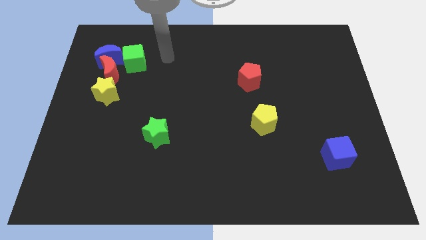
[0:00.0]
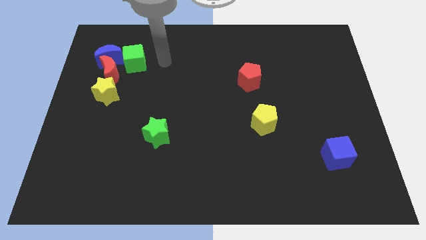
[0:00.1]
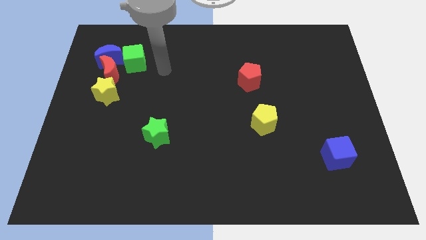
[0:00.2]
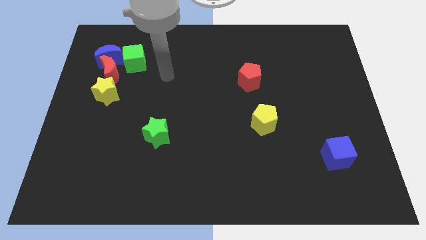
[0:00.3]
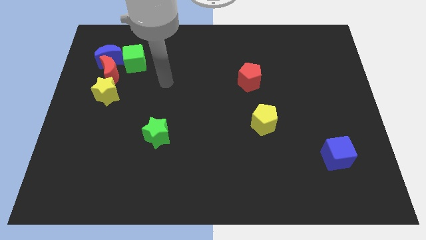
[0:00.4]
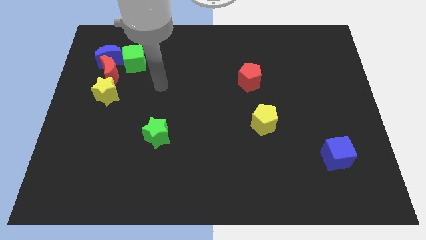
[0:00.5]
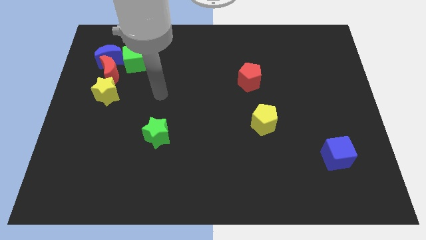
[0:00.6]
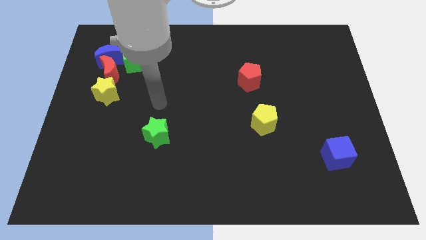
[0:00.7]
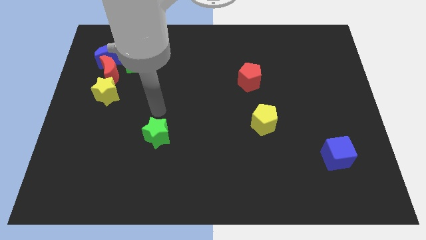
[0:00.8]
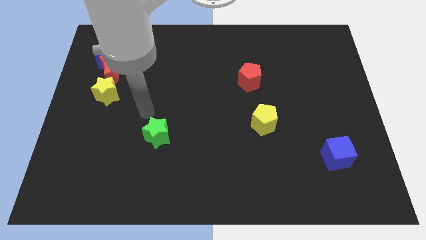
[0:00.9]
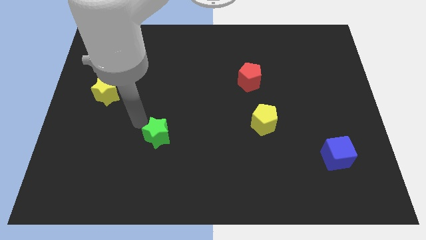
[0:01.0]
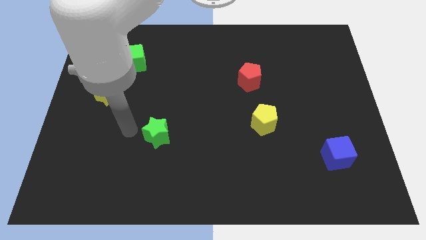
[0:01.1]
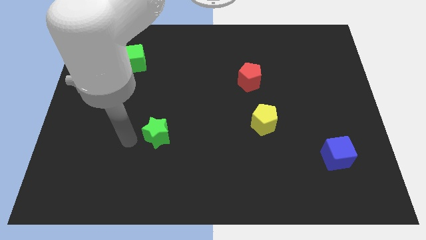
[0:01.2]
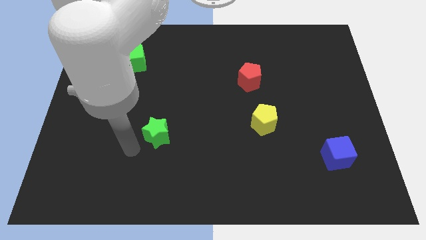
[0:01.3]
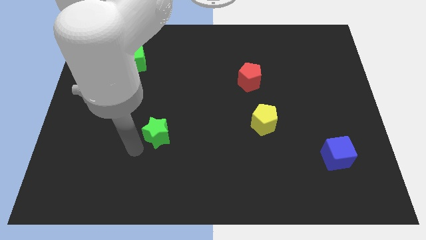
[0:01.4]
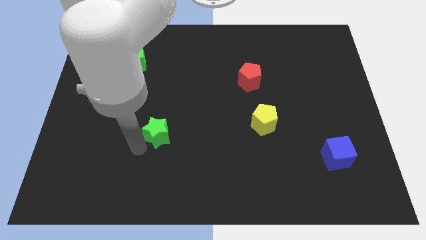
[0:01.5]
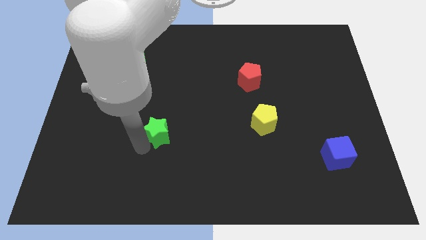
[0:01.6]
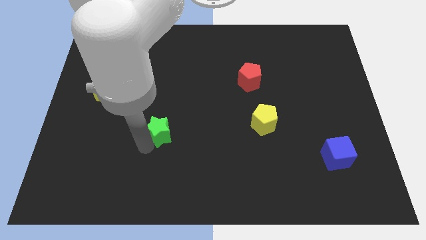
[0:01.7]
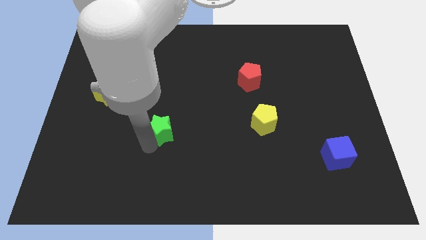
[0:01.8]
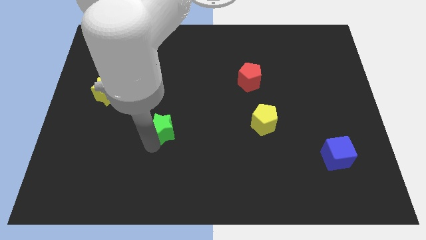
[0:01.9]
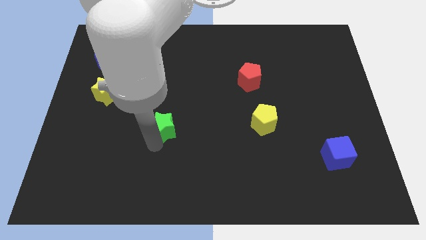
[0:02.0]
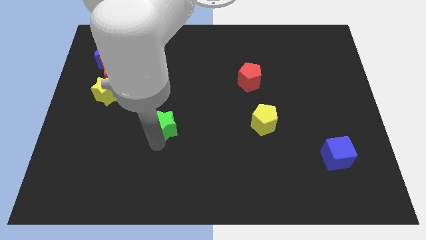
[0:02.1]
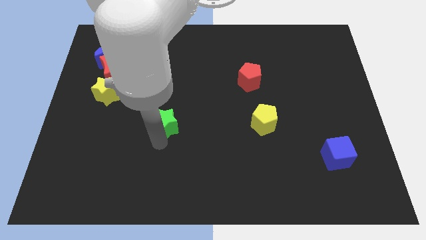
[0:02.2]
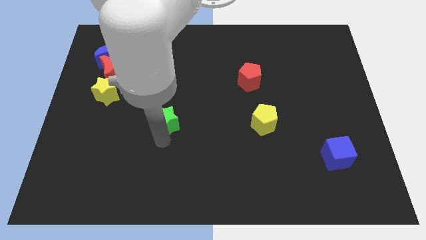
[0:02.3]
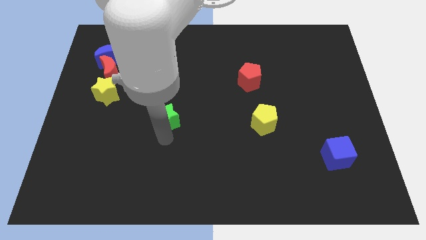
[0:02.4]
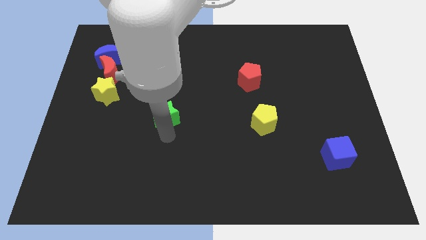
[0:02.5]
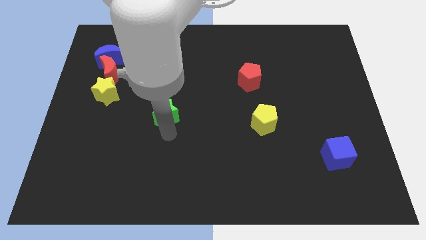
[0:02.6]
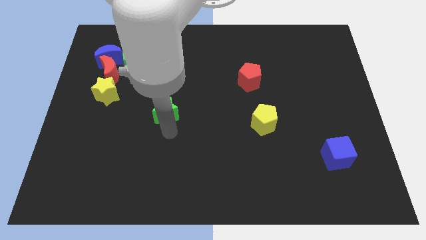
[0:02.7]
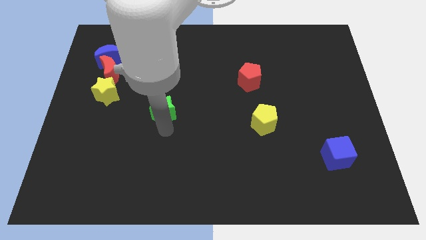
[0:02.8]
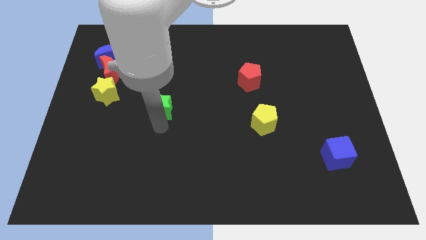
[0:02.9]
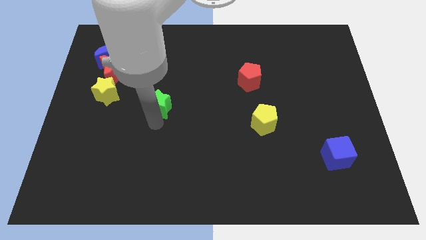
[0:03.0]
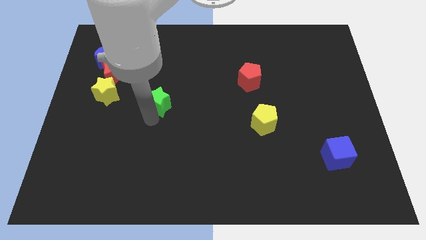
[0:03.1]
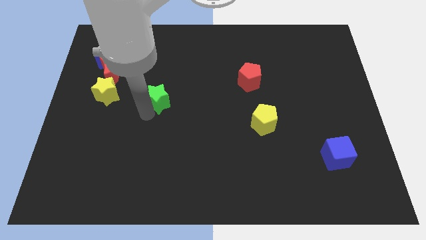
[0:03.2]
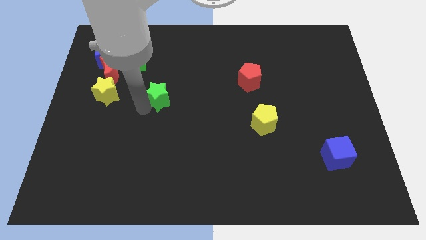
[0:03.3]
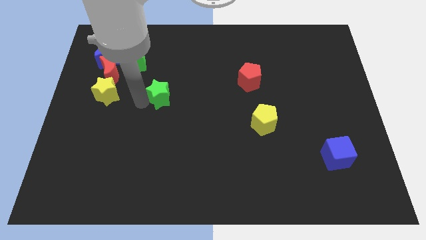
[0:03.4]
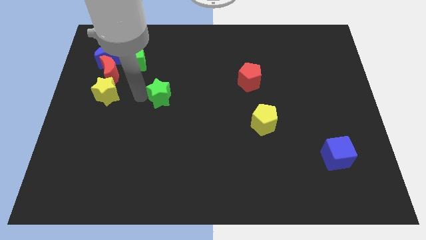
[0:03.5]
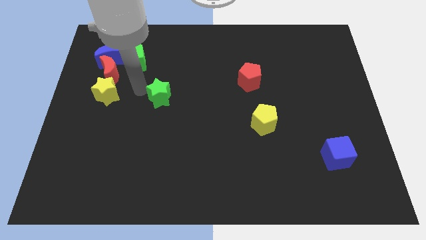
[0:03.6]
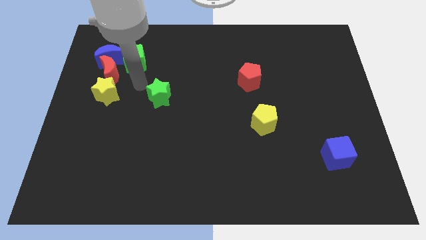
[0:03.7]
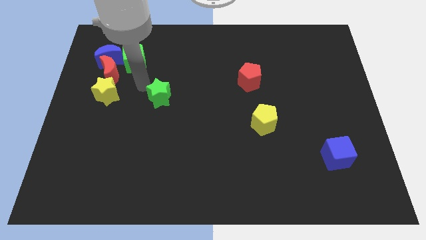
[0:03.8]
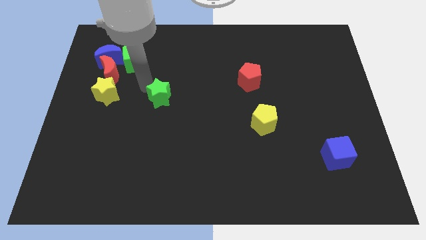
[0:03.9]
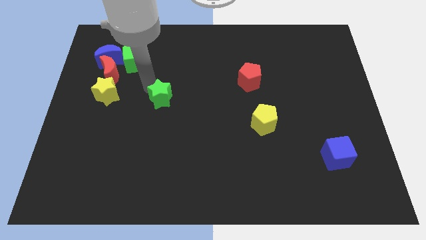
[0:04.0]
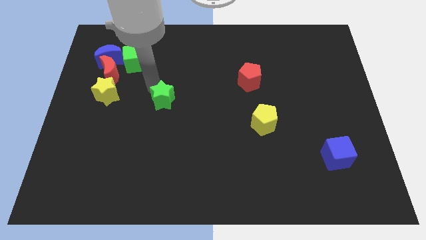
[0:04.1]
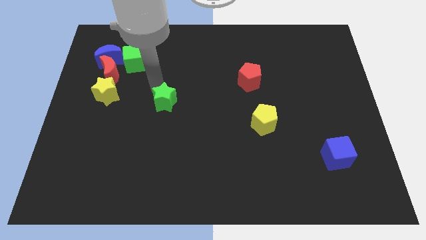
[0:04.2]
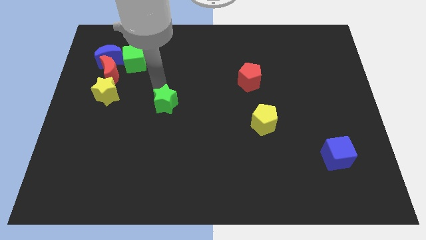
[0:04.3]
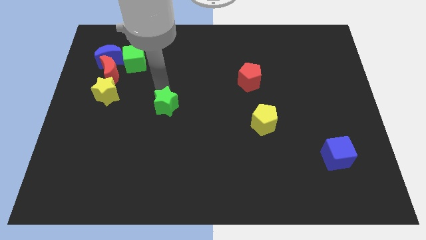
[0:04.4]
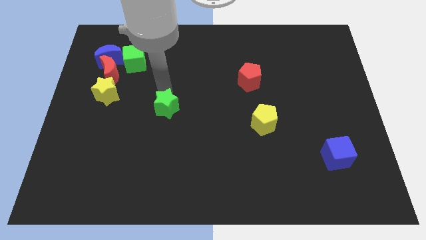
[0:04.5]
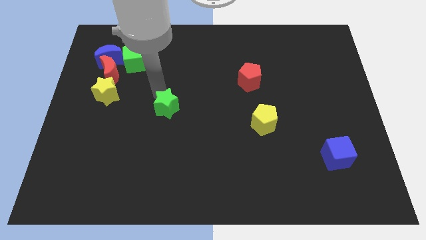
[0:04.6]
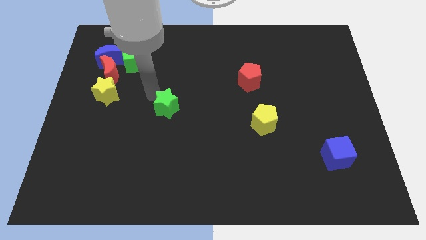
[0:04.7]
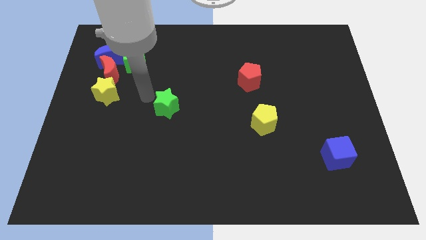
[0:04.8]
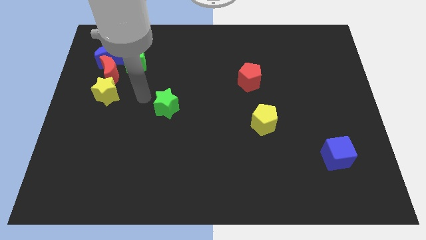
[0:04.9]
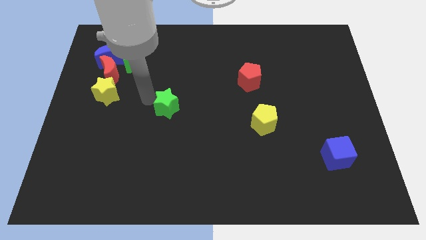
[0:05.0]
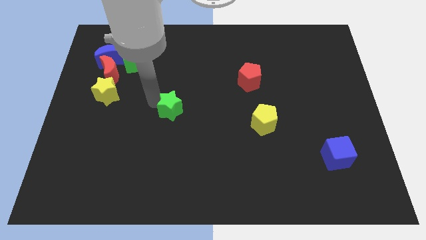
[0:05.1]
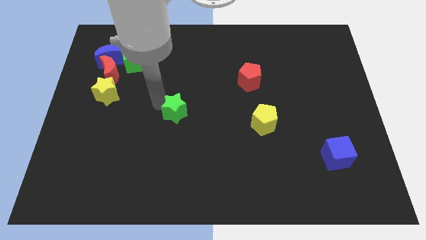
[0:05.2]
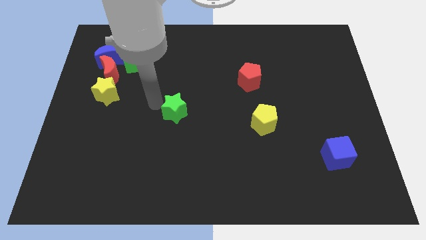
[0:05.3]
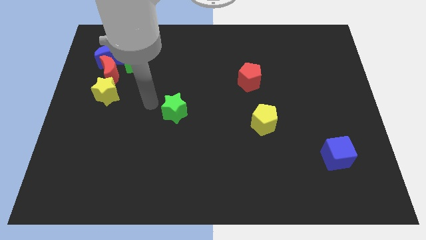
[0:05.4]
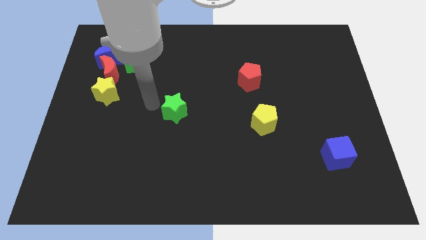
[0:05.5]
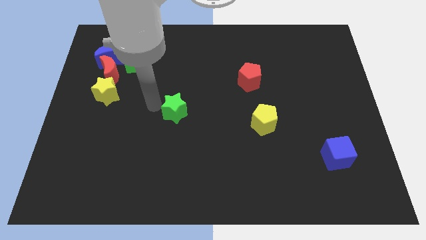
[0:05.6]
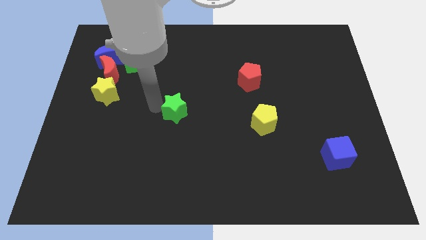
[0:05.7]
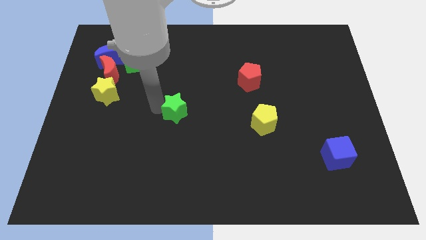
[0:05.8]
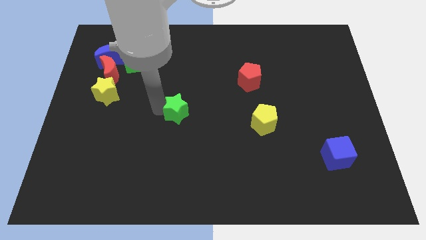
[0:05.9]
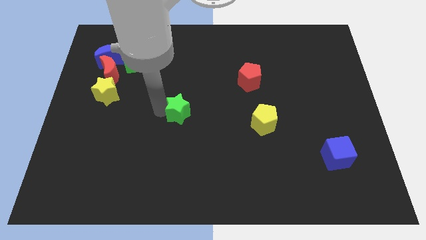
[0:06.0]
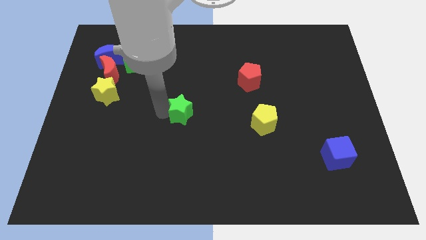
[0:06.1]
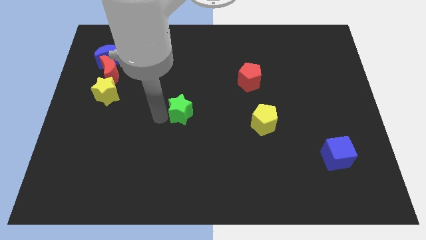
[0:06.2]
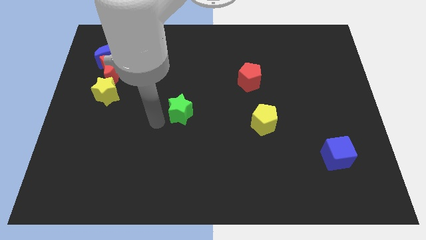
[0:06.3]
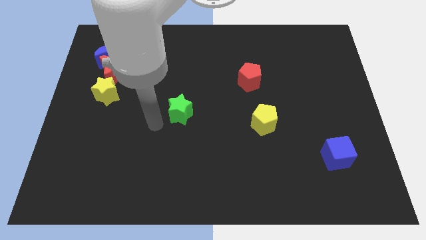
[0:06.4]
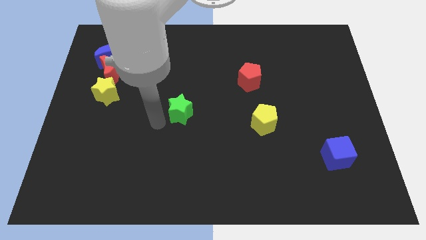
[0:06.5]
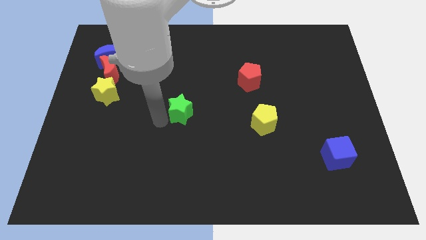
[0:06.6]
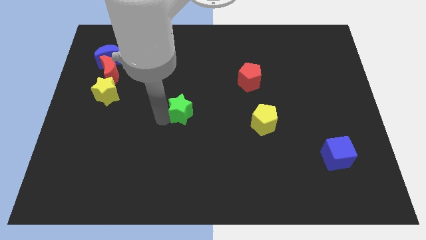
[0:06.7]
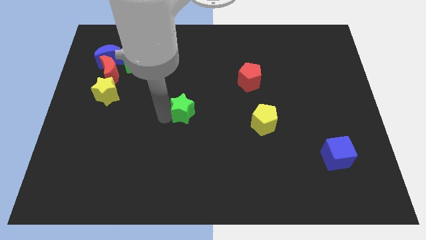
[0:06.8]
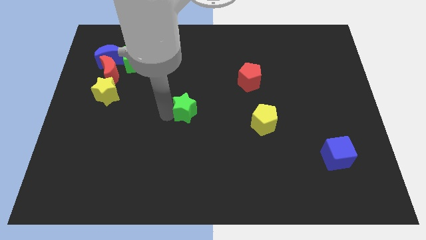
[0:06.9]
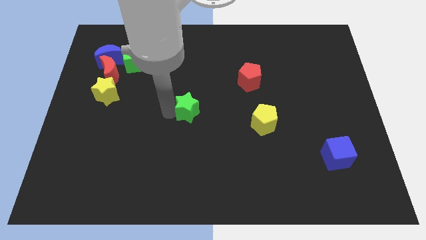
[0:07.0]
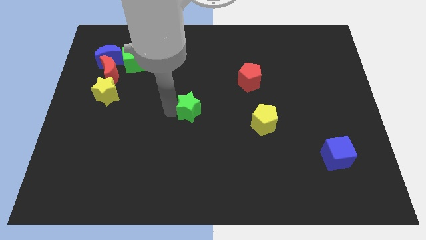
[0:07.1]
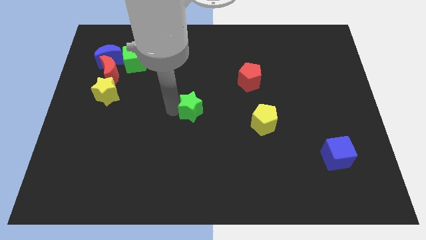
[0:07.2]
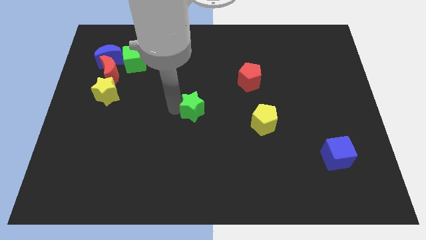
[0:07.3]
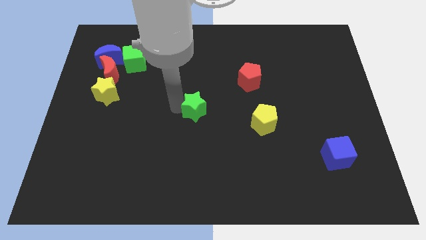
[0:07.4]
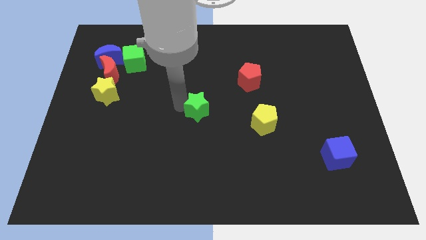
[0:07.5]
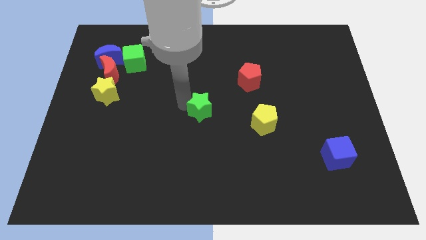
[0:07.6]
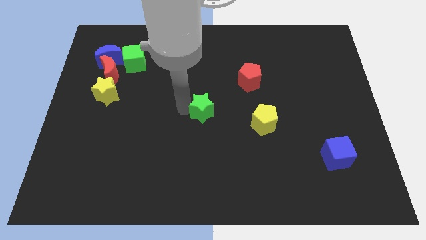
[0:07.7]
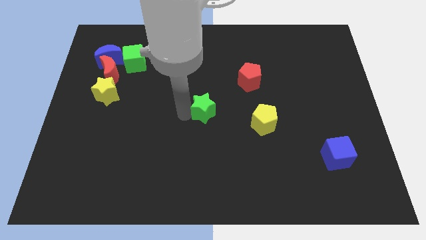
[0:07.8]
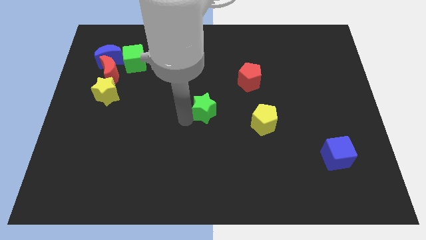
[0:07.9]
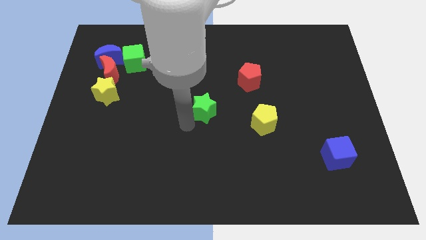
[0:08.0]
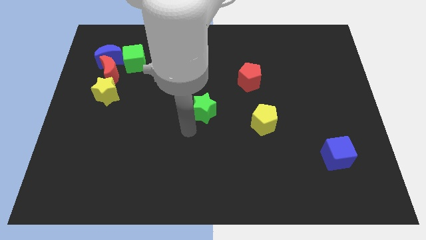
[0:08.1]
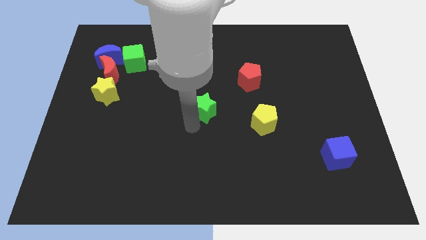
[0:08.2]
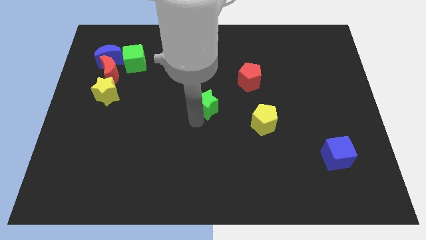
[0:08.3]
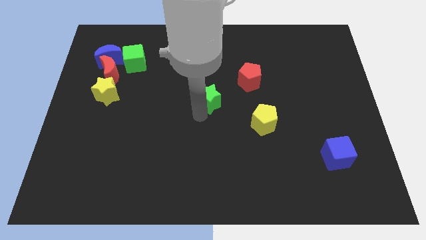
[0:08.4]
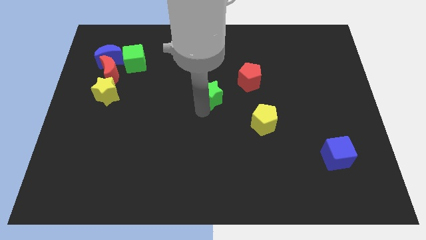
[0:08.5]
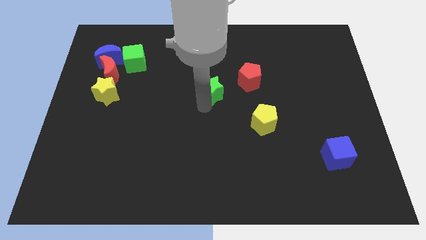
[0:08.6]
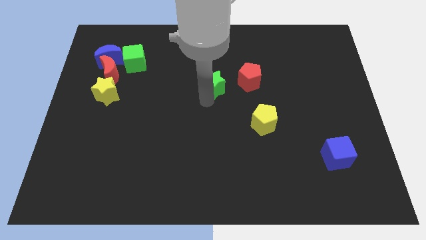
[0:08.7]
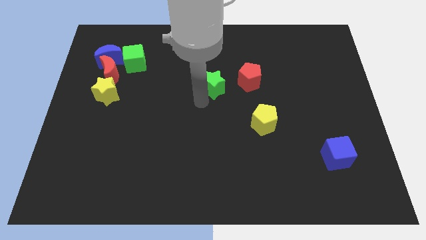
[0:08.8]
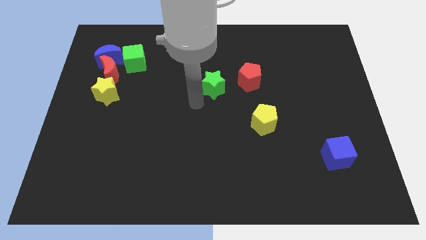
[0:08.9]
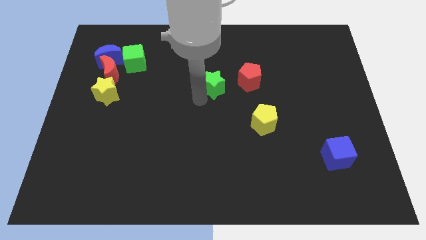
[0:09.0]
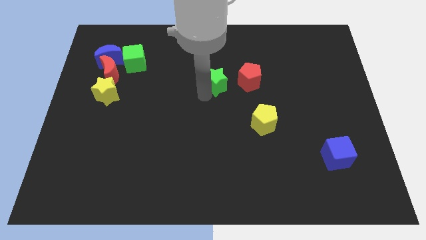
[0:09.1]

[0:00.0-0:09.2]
move the green star diagonally up and right
